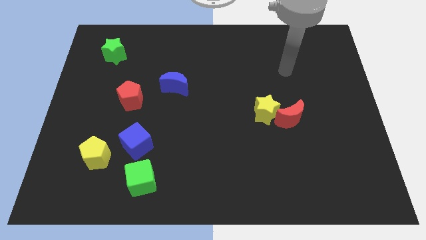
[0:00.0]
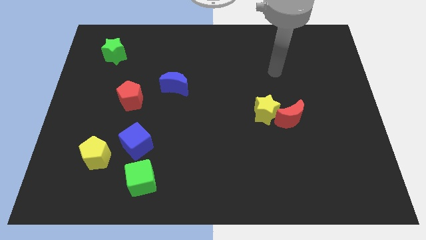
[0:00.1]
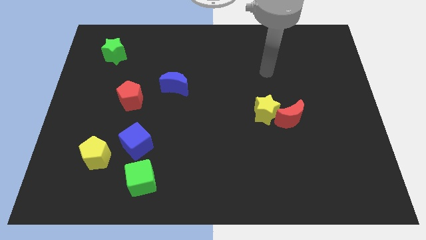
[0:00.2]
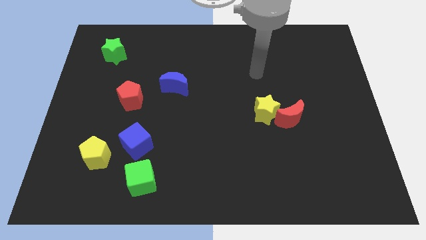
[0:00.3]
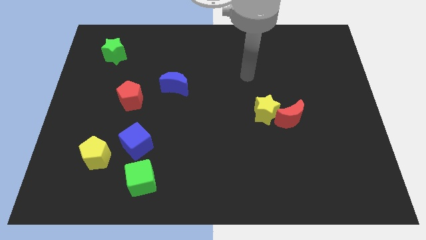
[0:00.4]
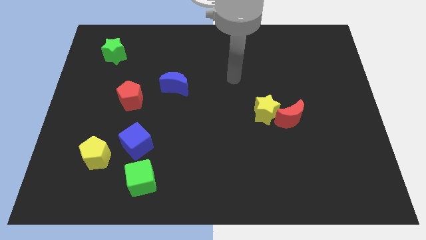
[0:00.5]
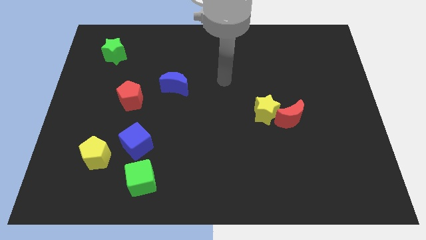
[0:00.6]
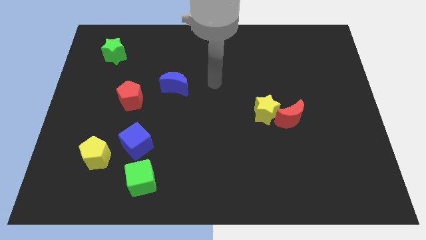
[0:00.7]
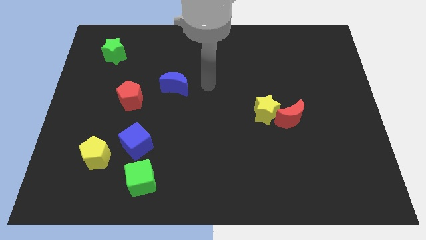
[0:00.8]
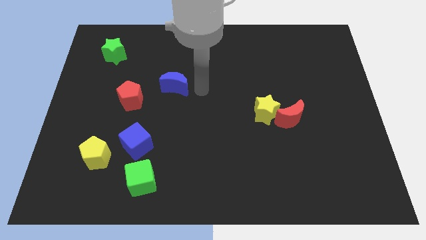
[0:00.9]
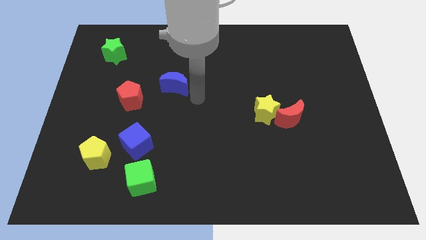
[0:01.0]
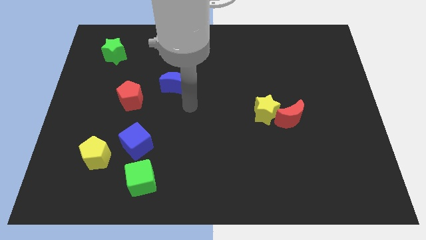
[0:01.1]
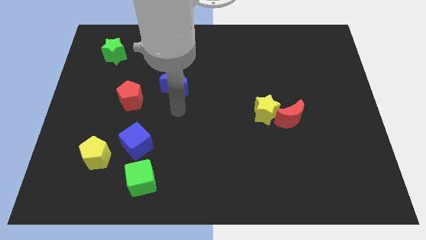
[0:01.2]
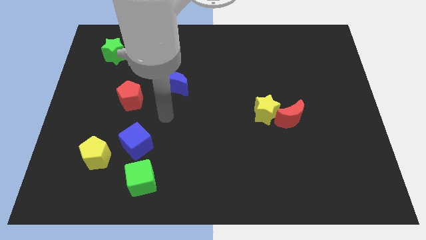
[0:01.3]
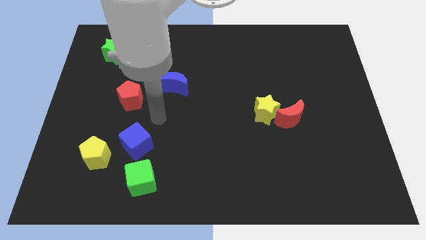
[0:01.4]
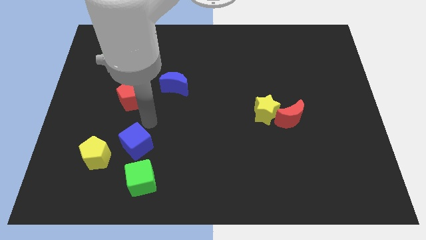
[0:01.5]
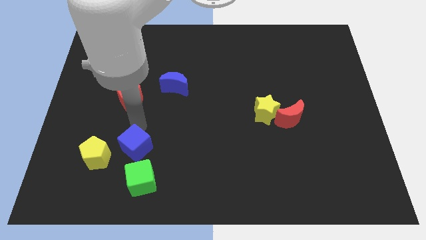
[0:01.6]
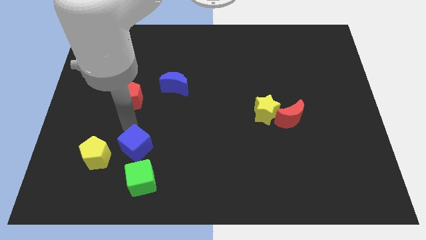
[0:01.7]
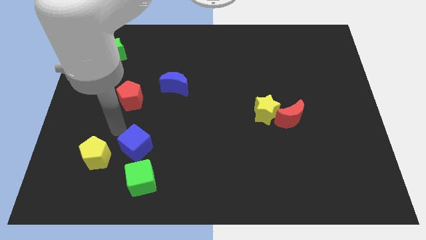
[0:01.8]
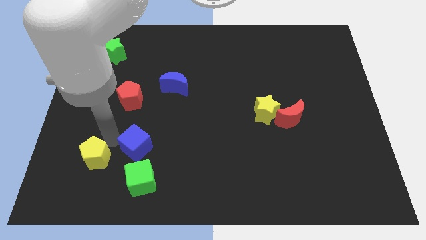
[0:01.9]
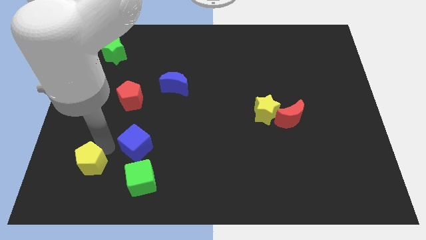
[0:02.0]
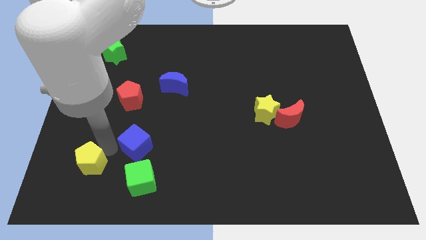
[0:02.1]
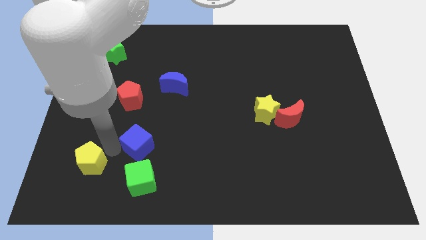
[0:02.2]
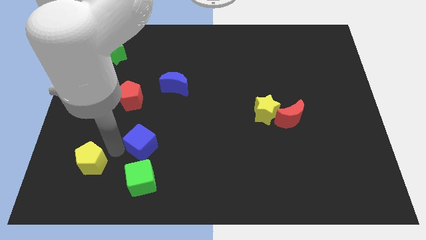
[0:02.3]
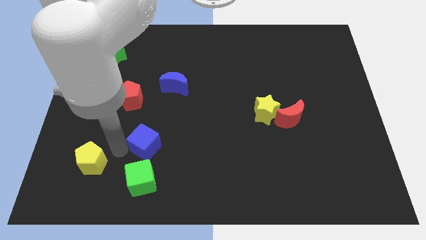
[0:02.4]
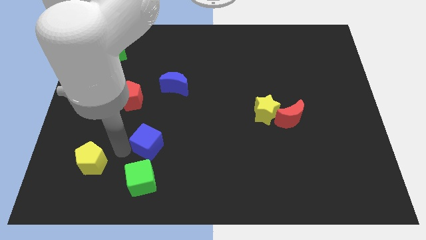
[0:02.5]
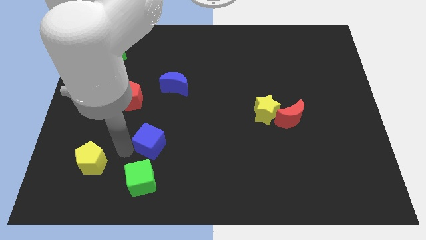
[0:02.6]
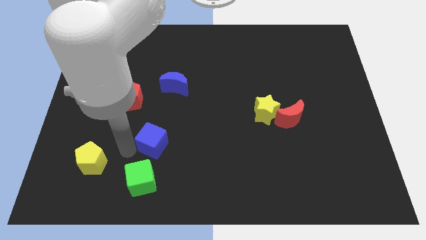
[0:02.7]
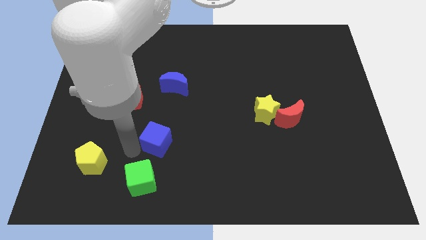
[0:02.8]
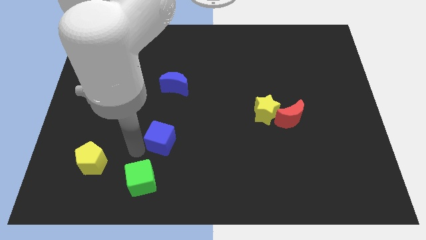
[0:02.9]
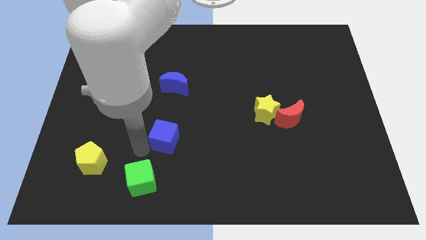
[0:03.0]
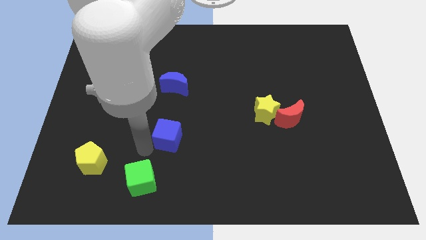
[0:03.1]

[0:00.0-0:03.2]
move the blue cube to the right somewhat

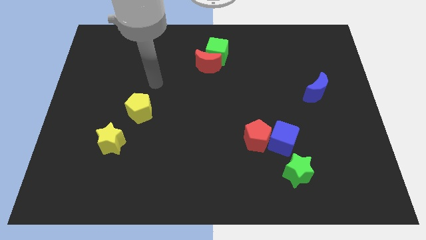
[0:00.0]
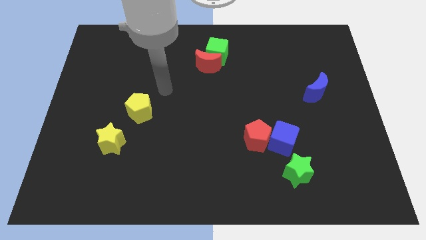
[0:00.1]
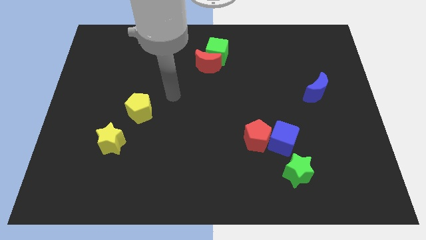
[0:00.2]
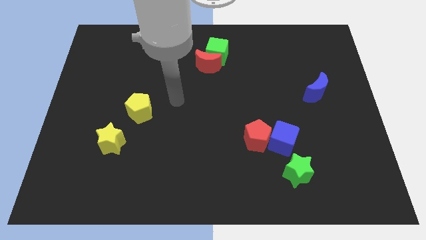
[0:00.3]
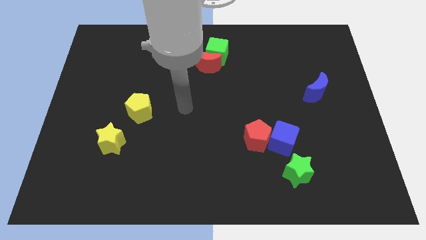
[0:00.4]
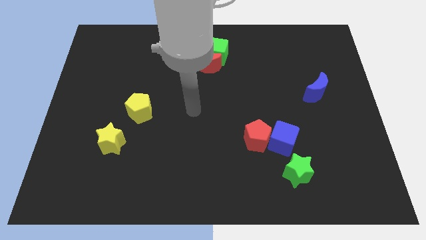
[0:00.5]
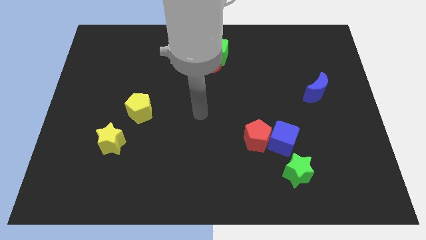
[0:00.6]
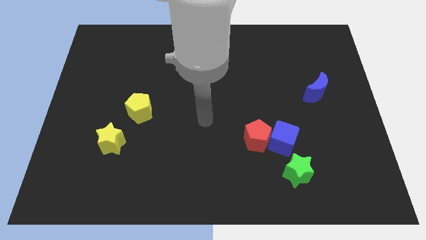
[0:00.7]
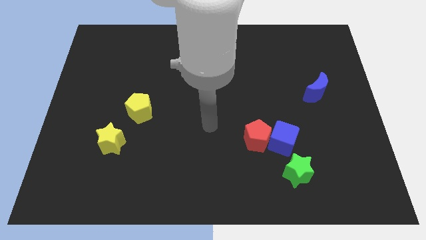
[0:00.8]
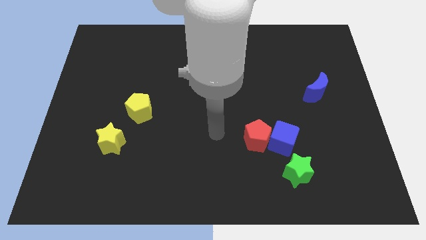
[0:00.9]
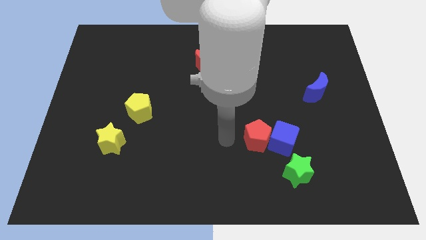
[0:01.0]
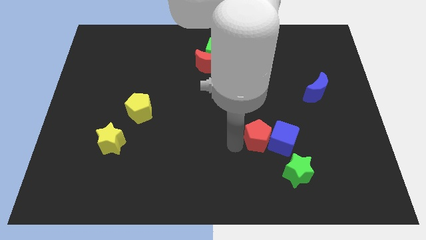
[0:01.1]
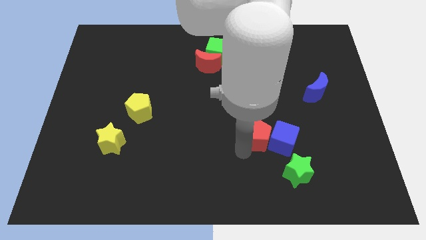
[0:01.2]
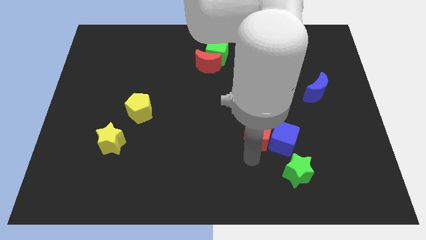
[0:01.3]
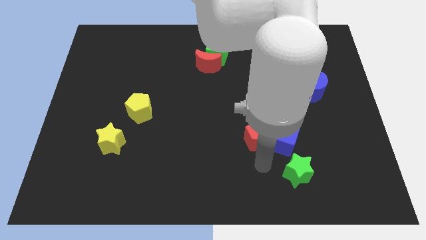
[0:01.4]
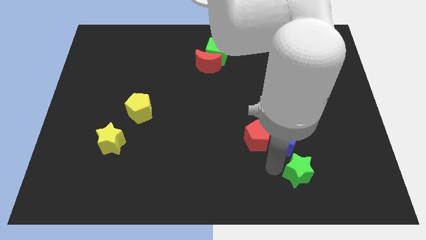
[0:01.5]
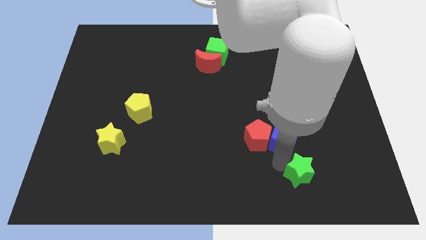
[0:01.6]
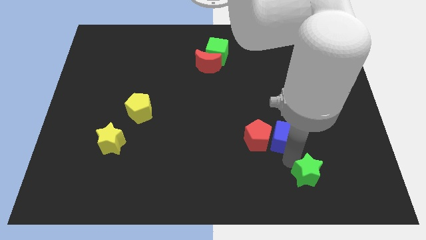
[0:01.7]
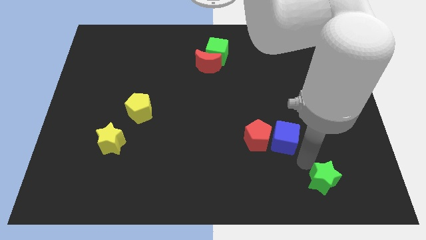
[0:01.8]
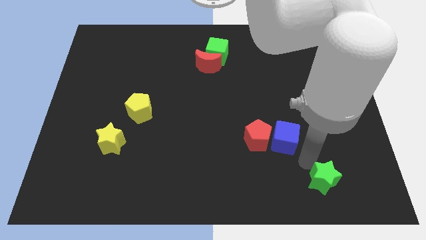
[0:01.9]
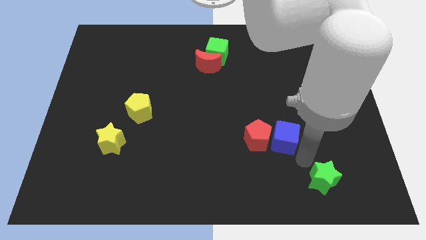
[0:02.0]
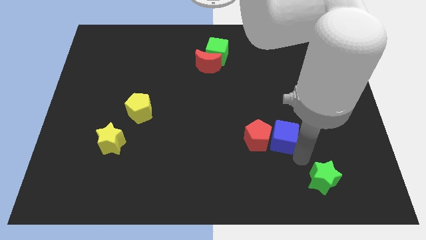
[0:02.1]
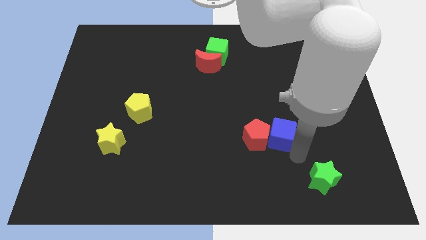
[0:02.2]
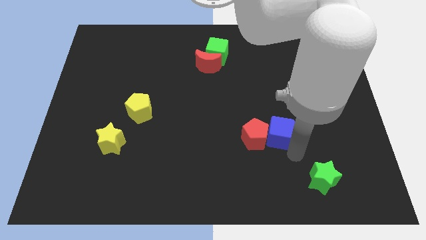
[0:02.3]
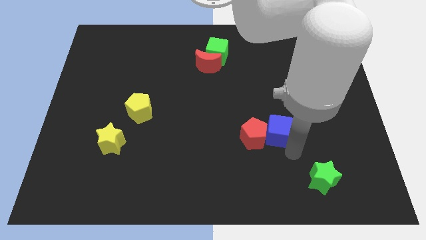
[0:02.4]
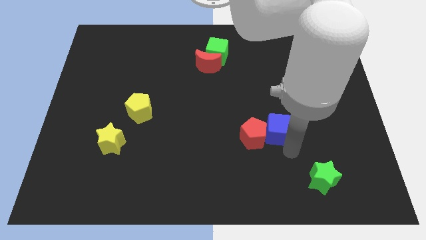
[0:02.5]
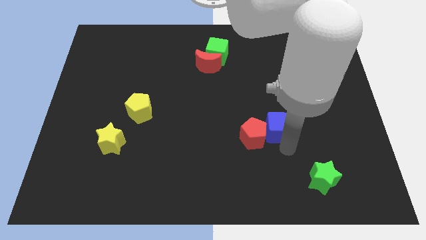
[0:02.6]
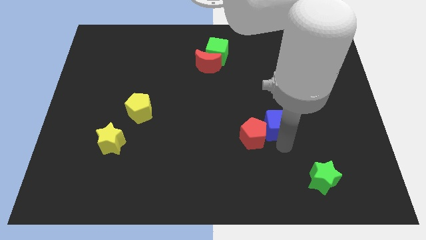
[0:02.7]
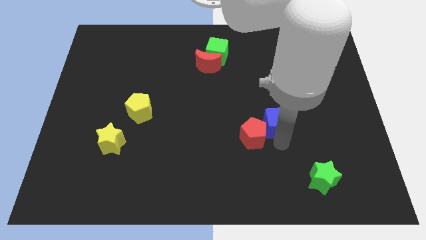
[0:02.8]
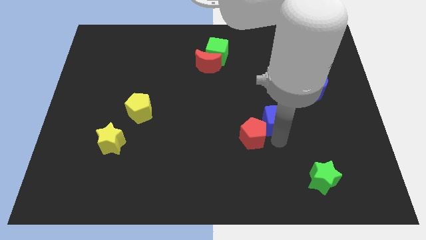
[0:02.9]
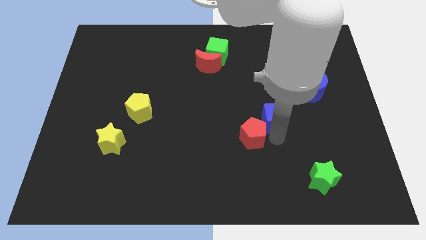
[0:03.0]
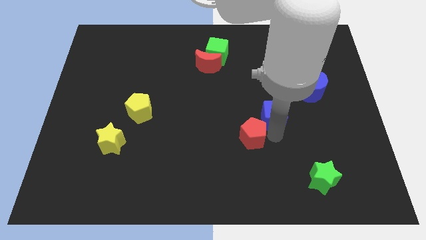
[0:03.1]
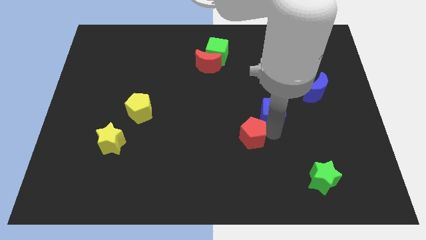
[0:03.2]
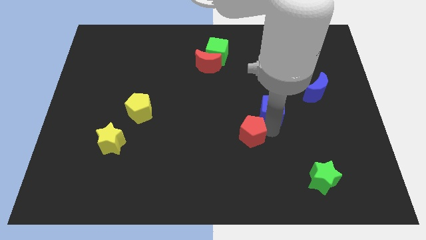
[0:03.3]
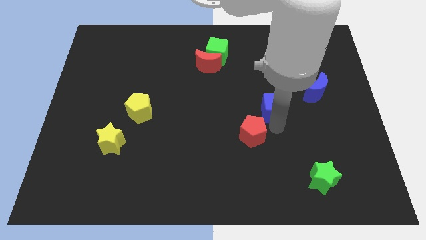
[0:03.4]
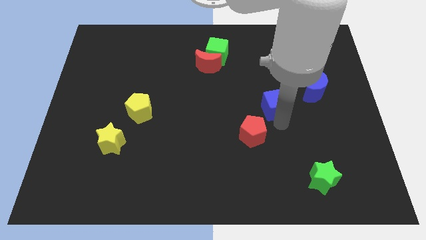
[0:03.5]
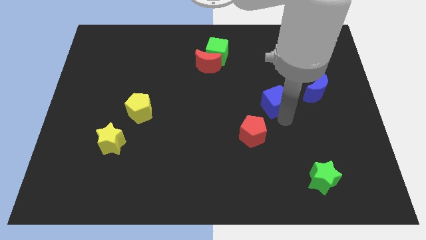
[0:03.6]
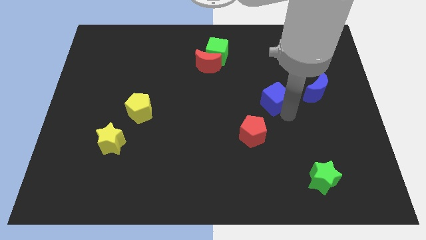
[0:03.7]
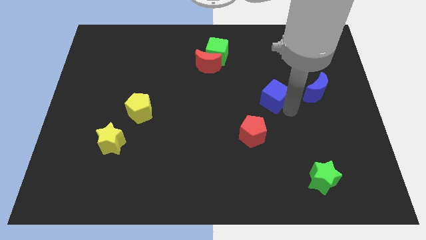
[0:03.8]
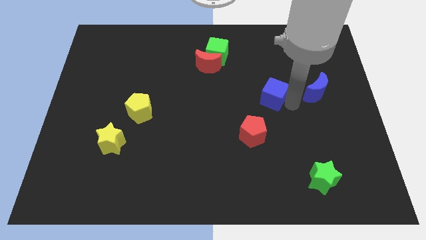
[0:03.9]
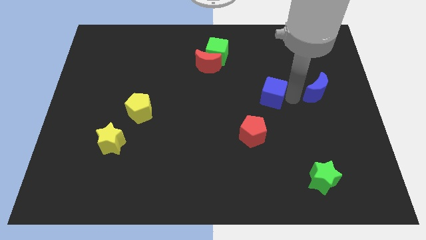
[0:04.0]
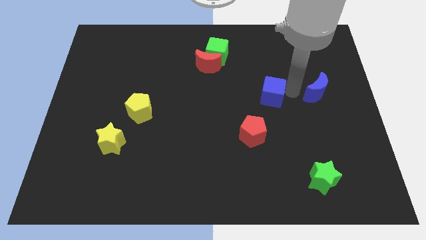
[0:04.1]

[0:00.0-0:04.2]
slightly push the blue cube upwards and to the left
